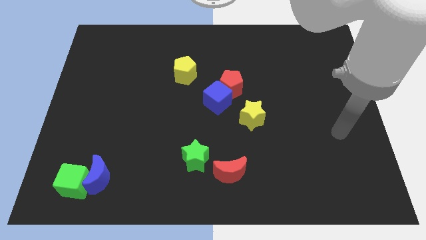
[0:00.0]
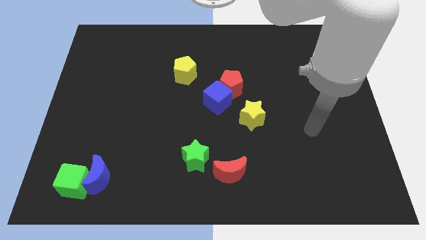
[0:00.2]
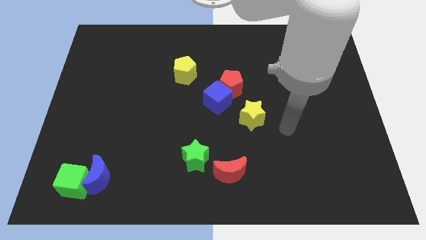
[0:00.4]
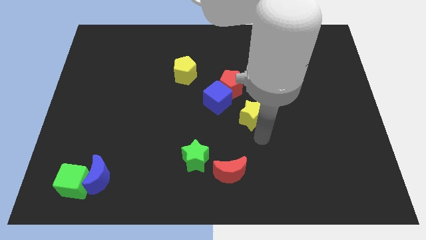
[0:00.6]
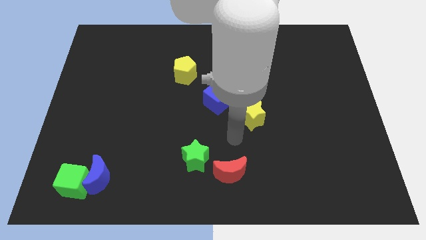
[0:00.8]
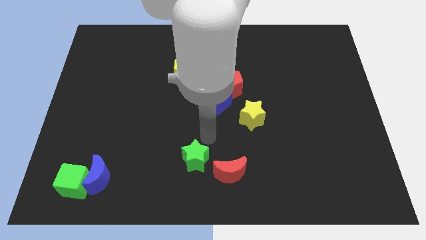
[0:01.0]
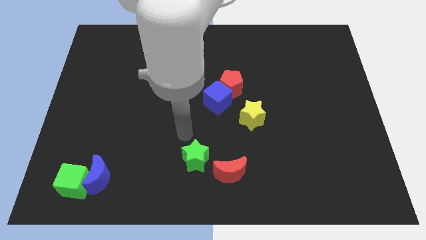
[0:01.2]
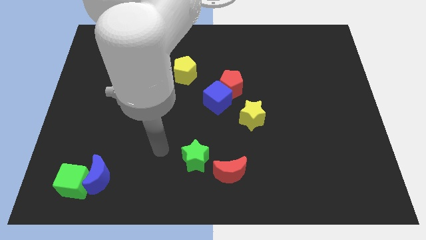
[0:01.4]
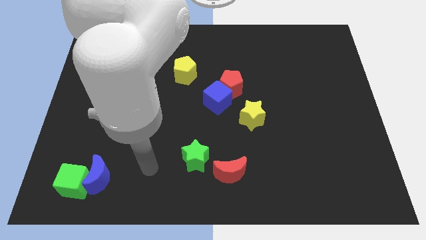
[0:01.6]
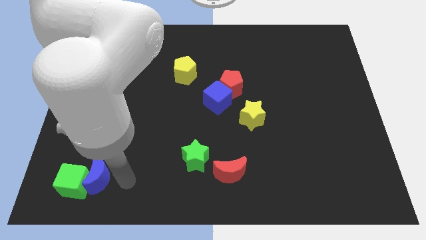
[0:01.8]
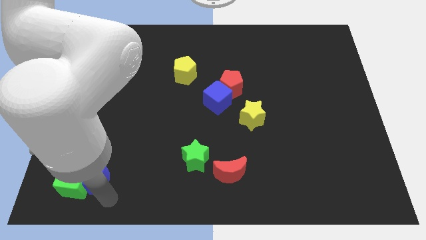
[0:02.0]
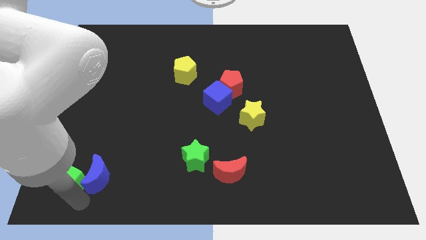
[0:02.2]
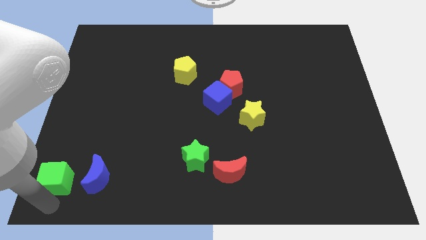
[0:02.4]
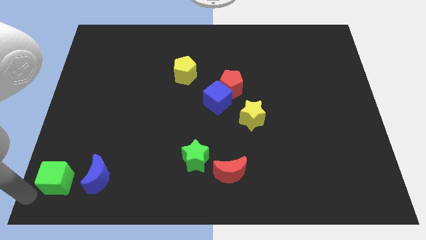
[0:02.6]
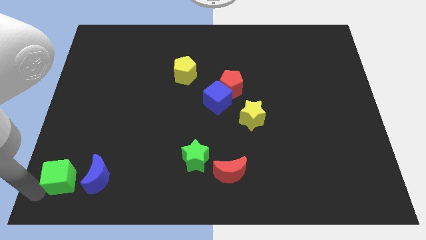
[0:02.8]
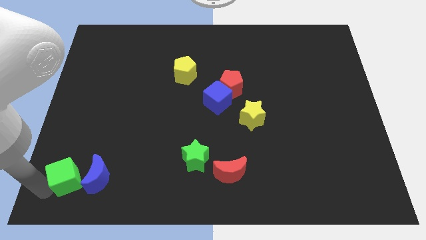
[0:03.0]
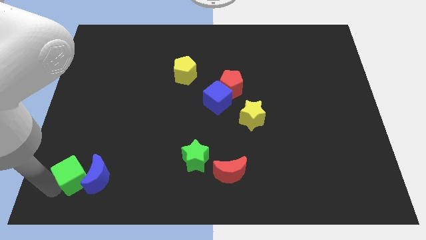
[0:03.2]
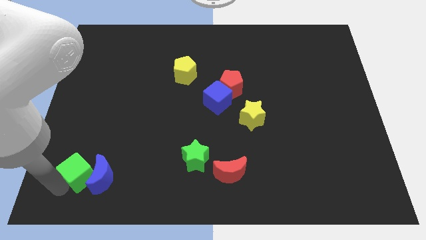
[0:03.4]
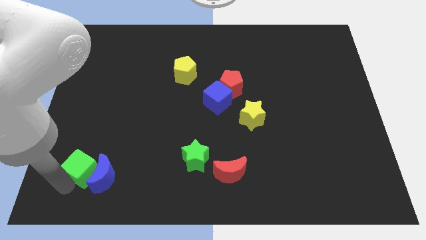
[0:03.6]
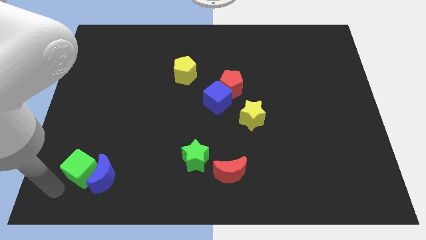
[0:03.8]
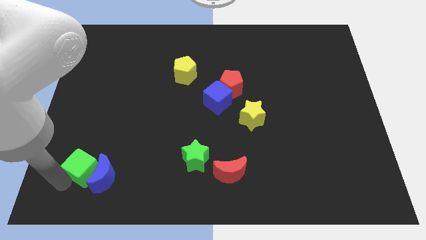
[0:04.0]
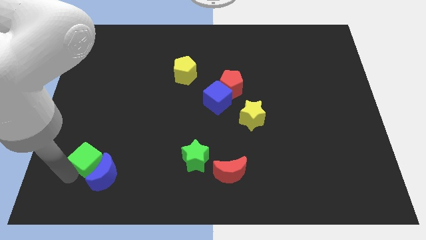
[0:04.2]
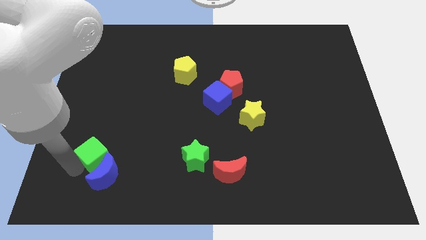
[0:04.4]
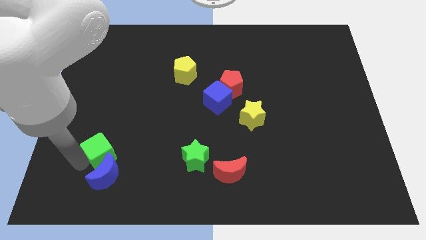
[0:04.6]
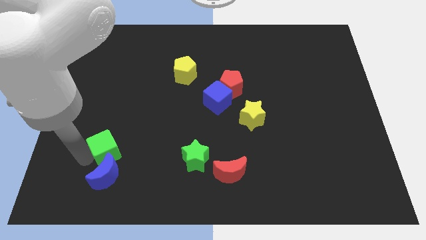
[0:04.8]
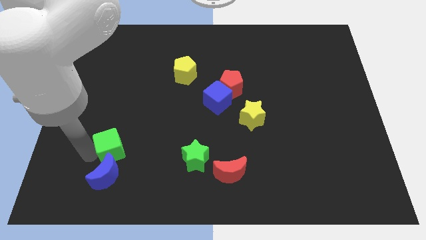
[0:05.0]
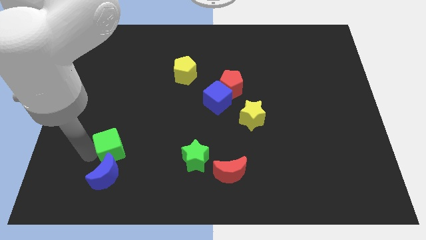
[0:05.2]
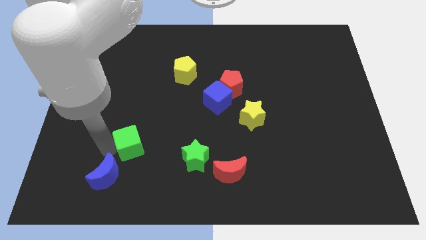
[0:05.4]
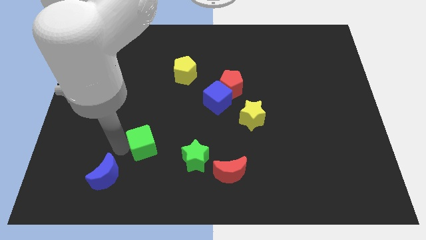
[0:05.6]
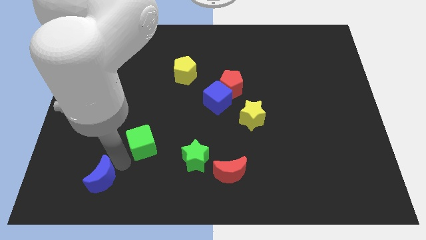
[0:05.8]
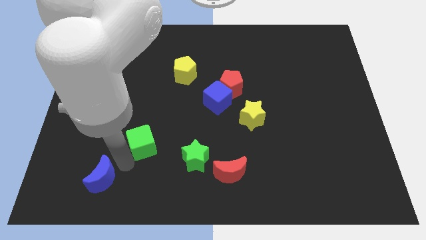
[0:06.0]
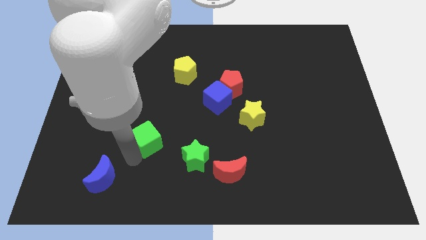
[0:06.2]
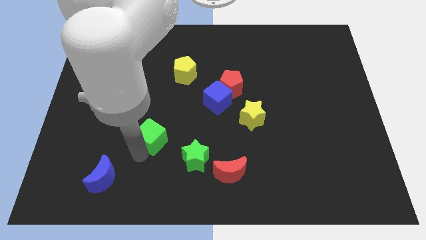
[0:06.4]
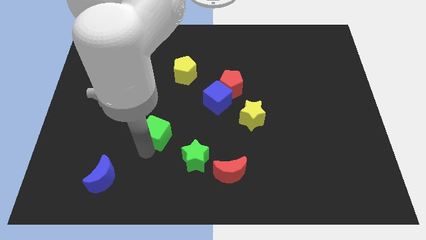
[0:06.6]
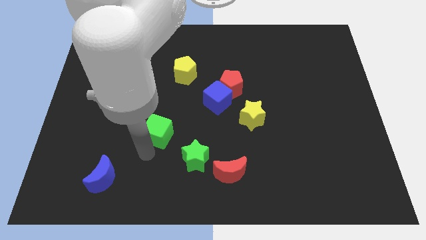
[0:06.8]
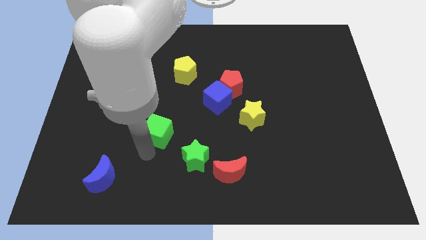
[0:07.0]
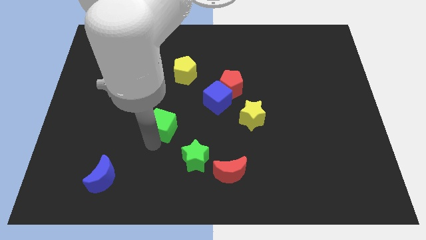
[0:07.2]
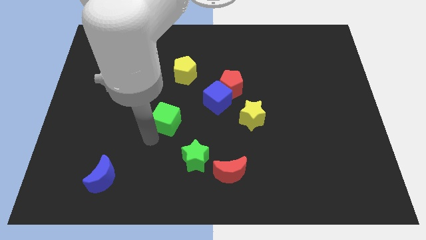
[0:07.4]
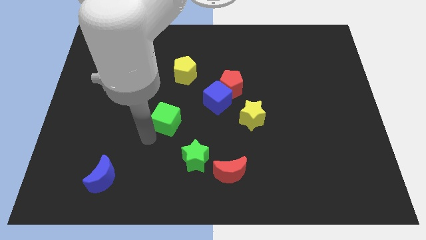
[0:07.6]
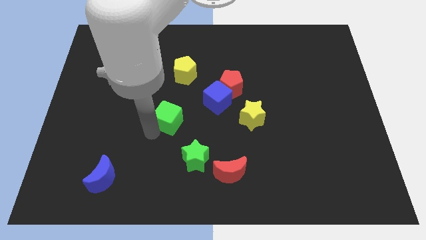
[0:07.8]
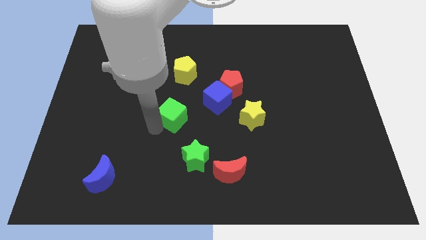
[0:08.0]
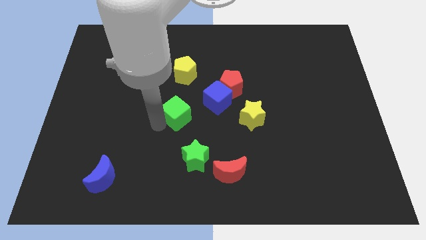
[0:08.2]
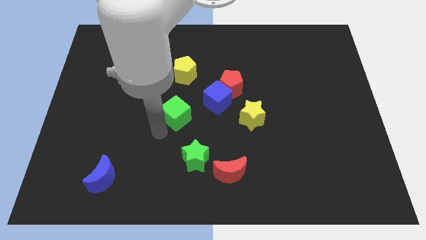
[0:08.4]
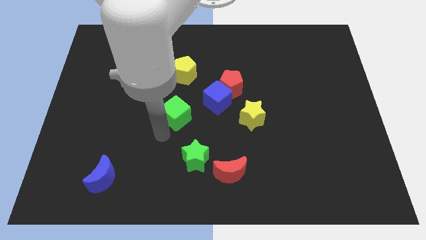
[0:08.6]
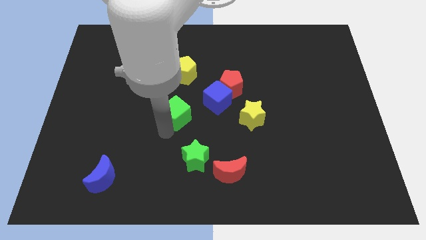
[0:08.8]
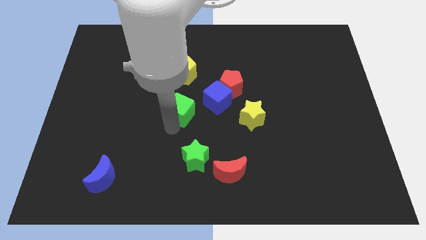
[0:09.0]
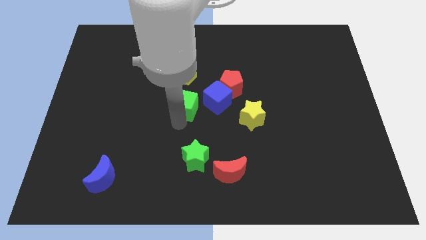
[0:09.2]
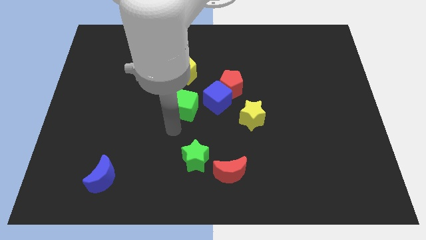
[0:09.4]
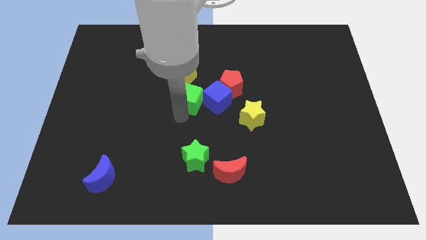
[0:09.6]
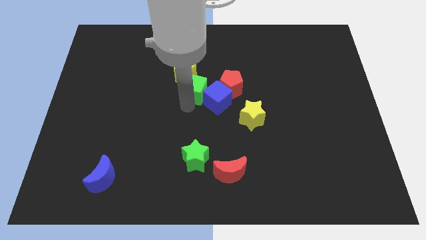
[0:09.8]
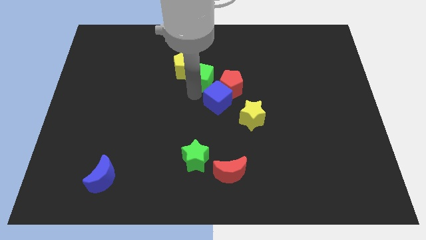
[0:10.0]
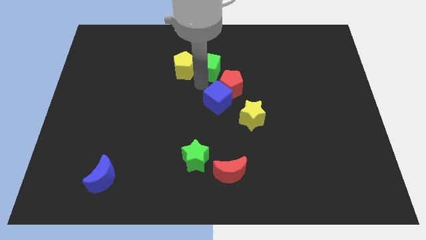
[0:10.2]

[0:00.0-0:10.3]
push the green cube to the top right of the yellow pentagon

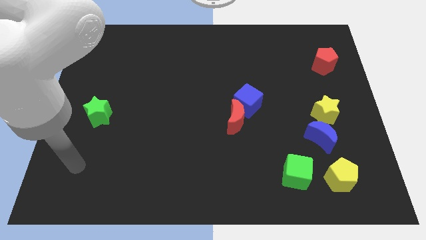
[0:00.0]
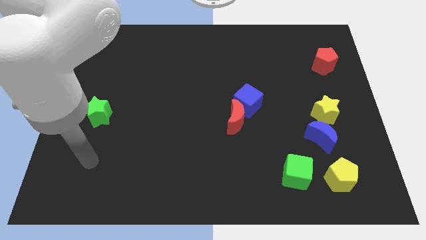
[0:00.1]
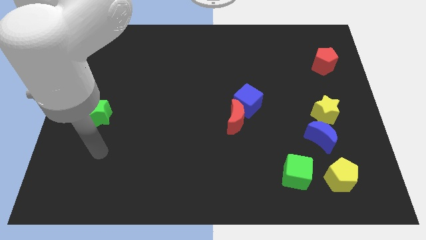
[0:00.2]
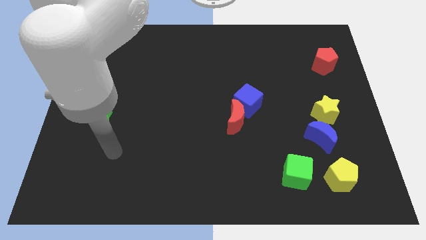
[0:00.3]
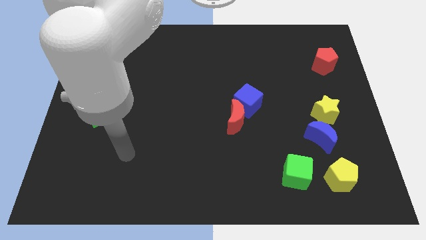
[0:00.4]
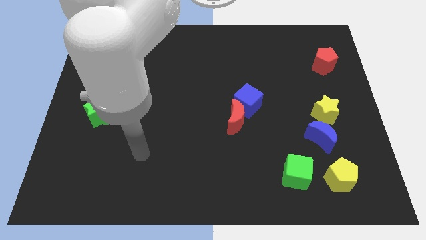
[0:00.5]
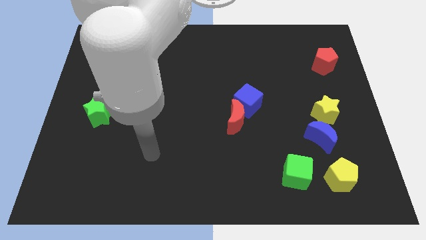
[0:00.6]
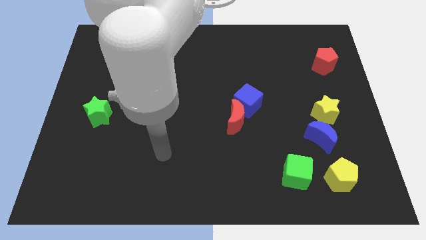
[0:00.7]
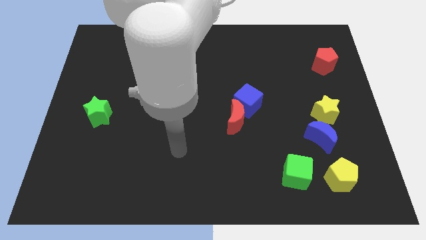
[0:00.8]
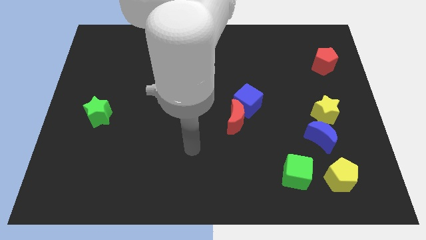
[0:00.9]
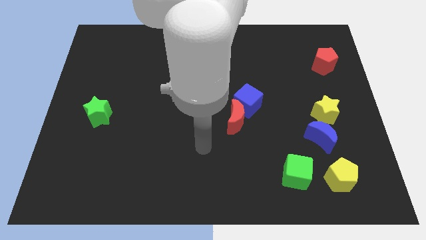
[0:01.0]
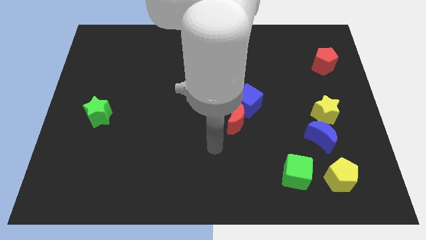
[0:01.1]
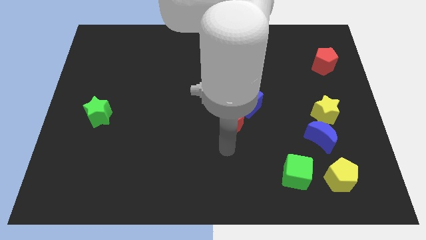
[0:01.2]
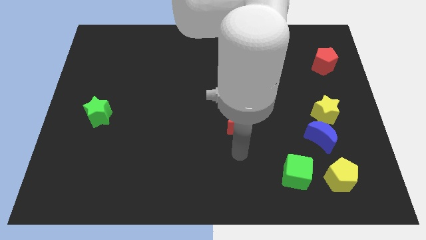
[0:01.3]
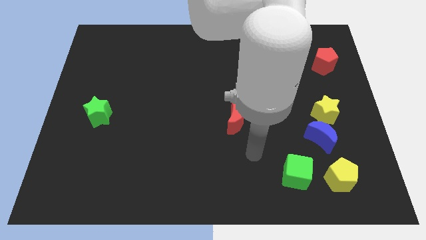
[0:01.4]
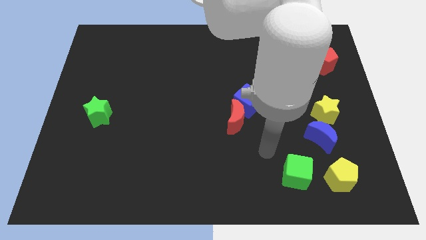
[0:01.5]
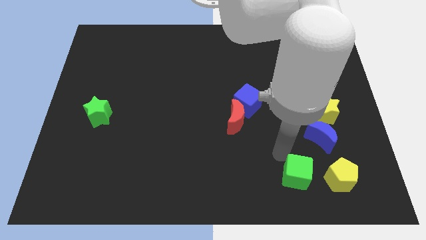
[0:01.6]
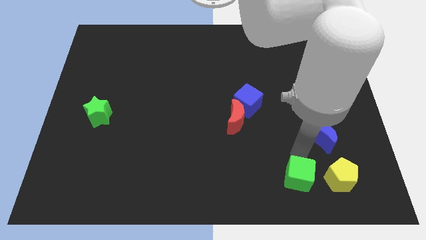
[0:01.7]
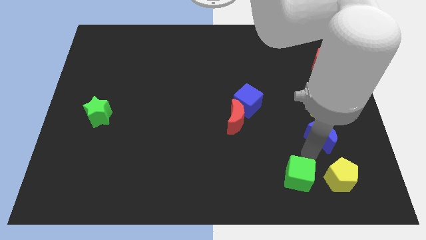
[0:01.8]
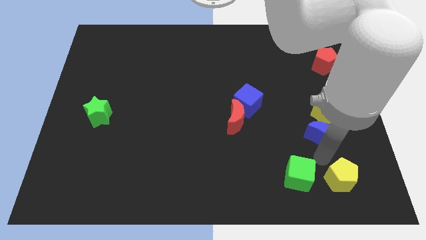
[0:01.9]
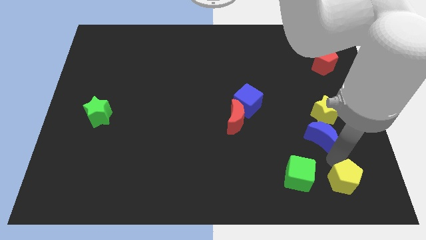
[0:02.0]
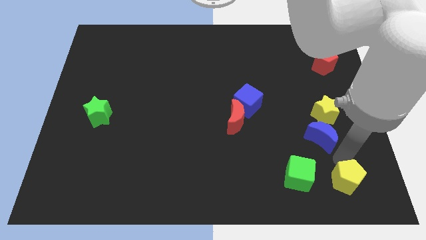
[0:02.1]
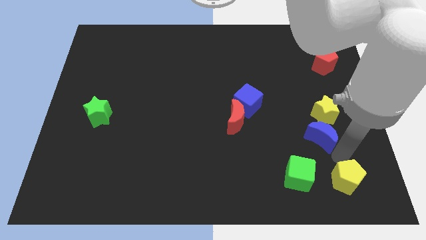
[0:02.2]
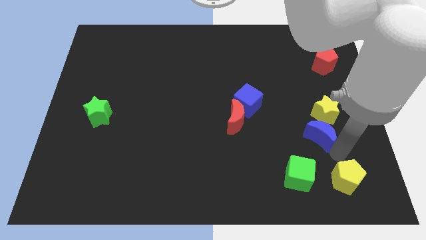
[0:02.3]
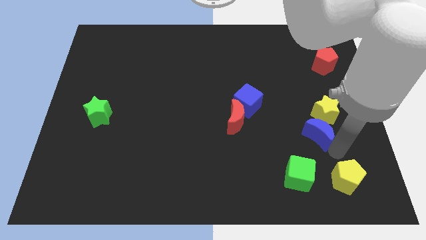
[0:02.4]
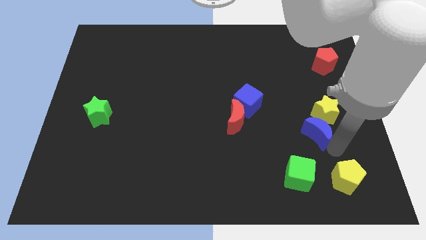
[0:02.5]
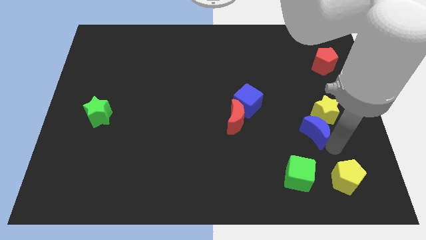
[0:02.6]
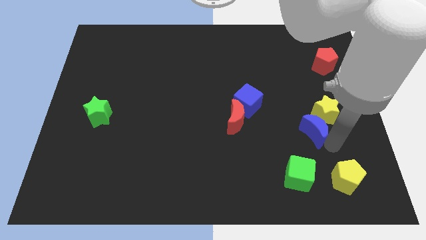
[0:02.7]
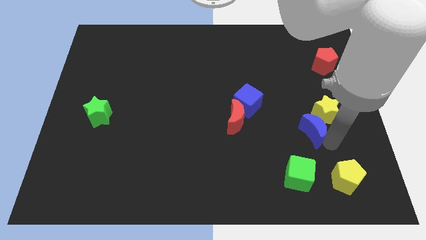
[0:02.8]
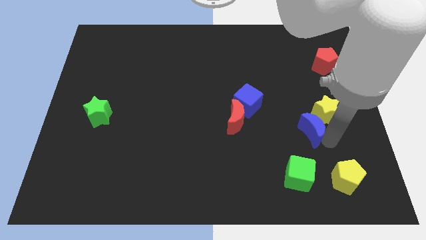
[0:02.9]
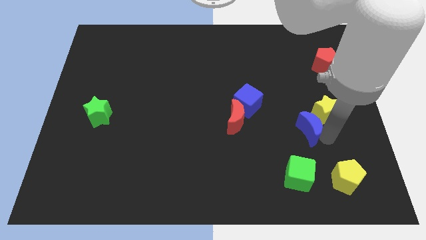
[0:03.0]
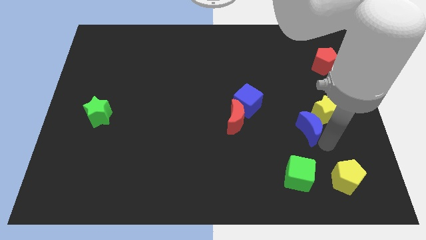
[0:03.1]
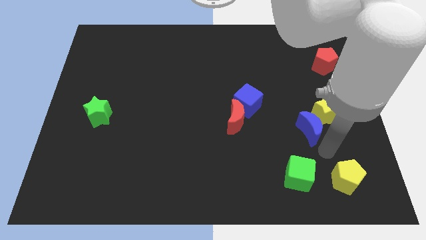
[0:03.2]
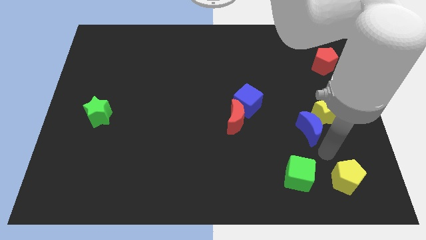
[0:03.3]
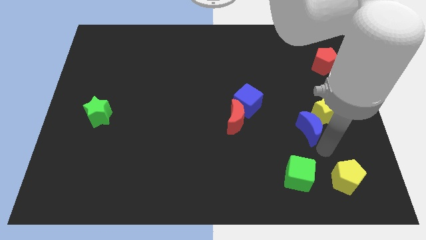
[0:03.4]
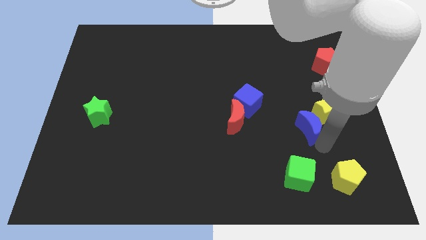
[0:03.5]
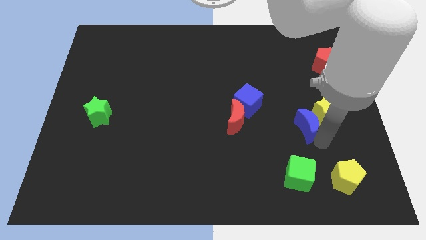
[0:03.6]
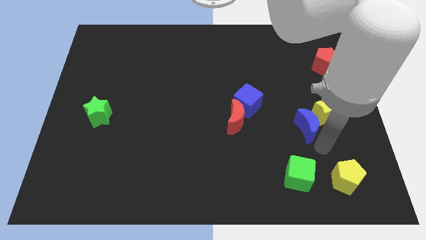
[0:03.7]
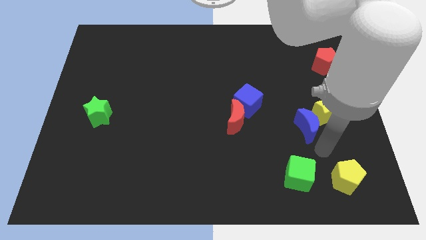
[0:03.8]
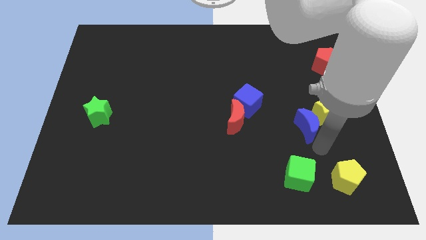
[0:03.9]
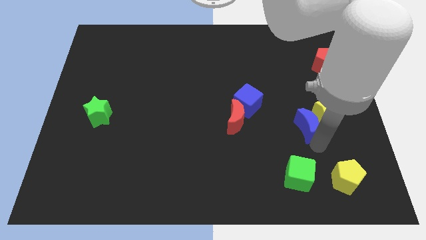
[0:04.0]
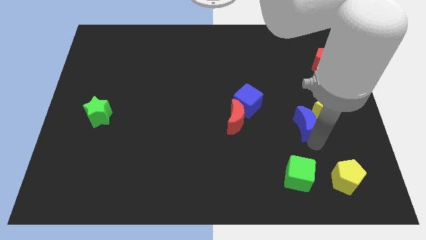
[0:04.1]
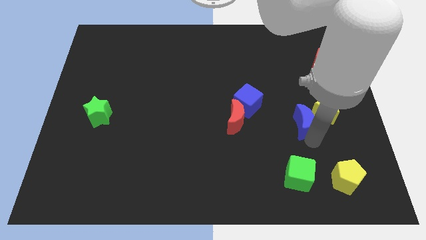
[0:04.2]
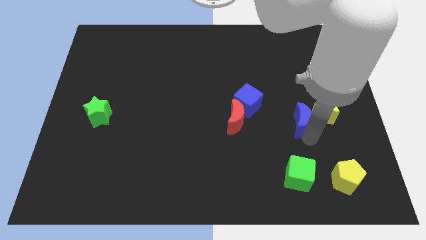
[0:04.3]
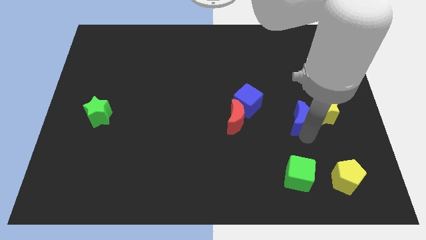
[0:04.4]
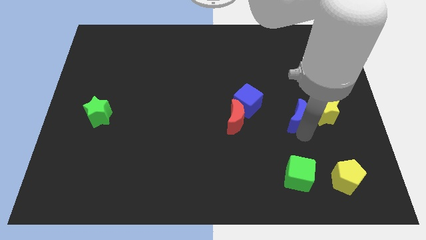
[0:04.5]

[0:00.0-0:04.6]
put the blue moon to the right side of the blue cube
